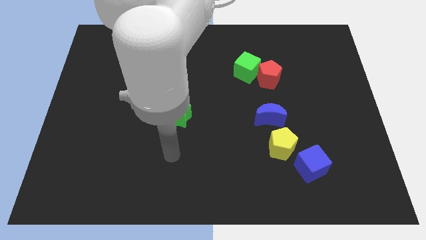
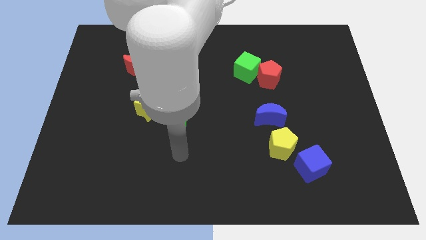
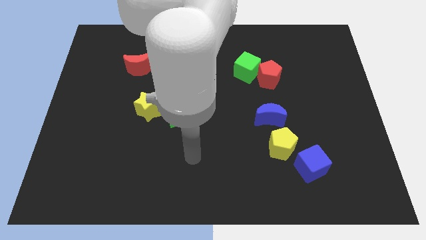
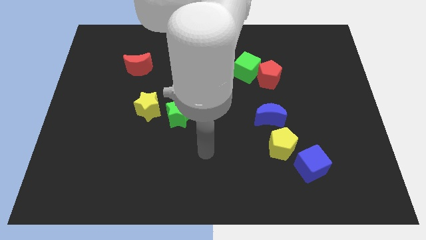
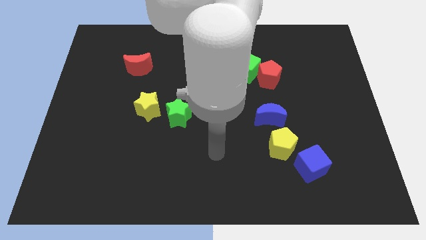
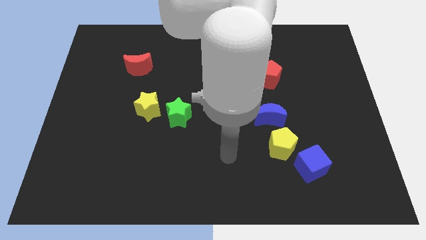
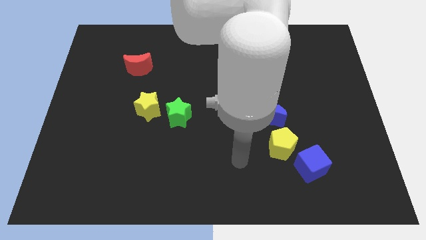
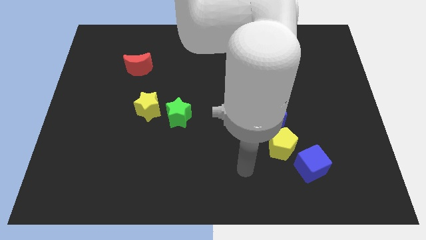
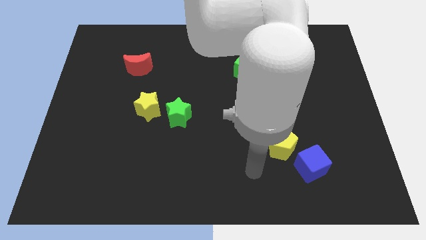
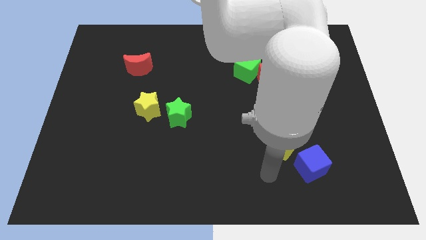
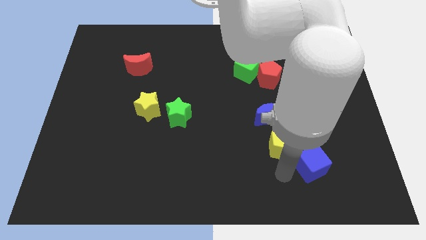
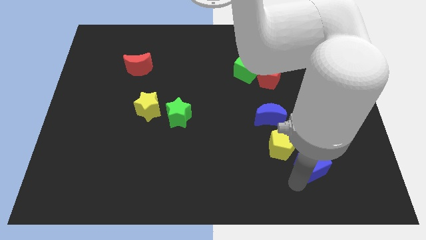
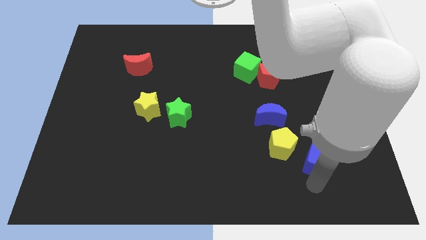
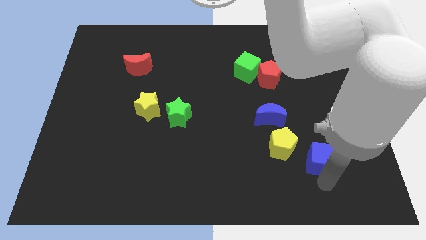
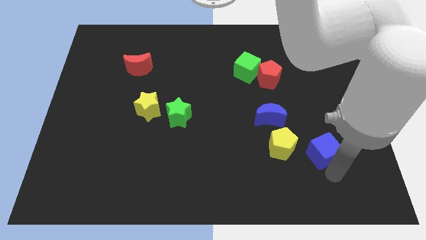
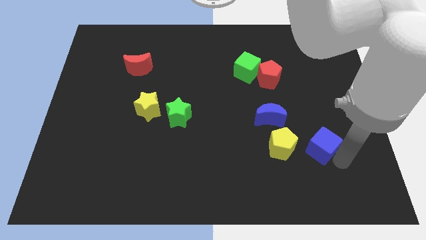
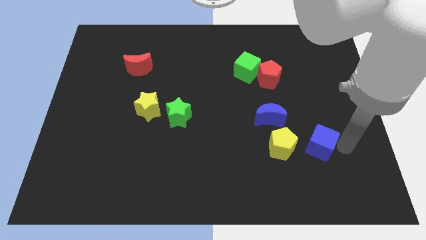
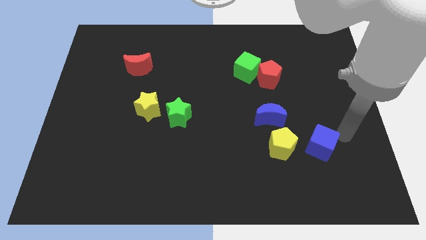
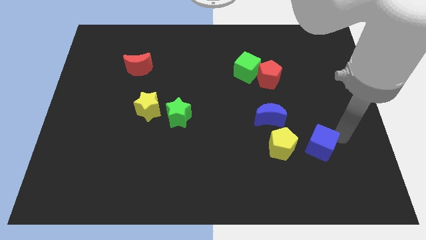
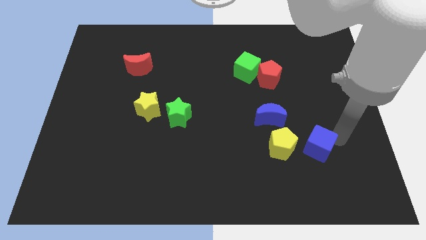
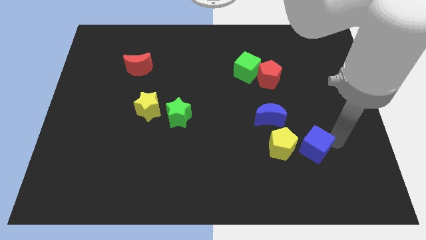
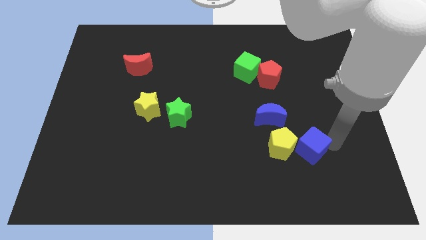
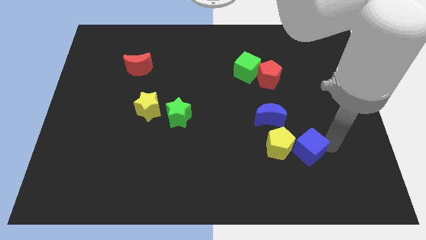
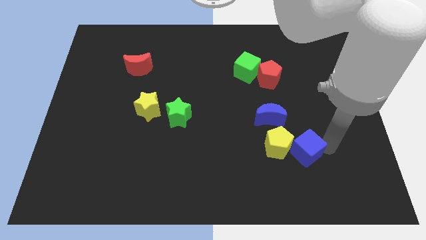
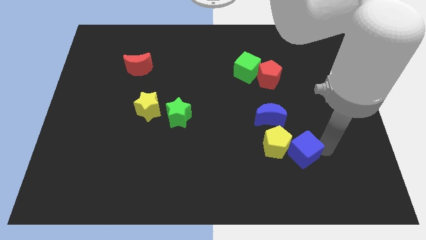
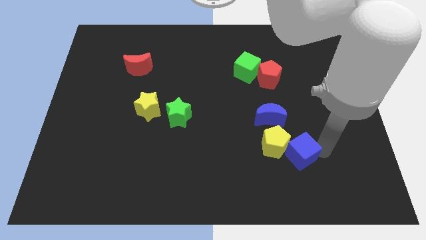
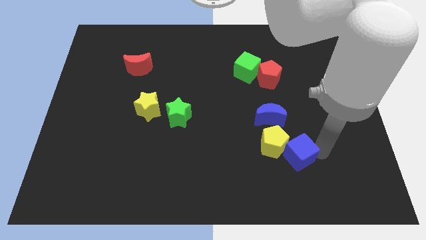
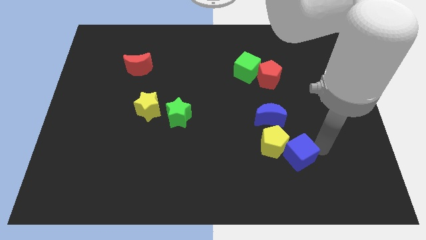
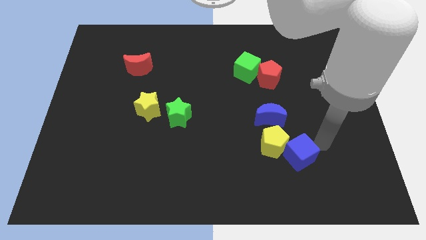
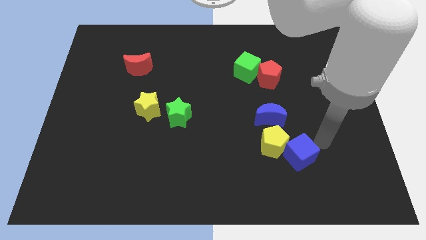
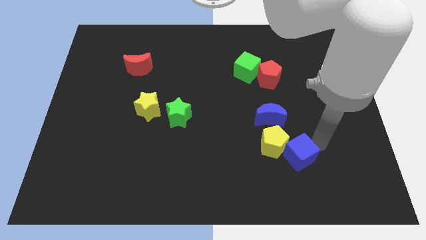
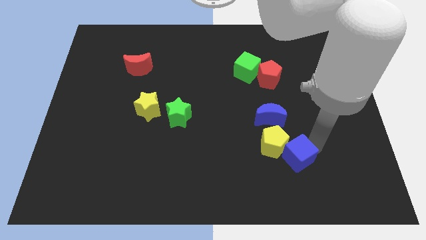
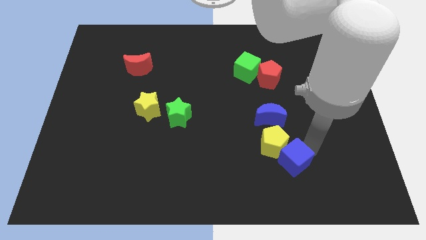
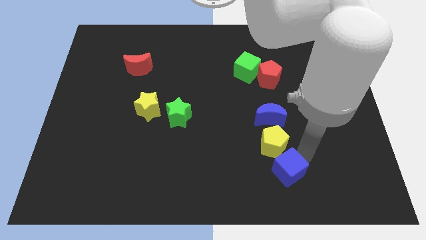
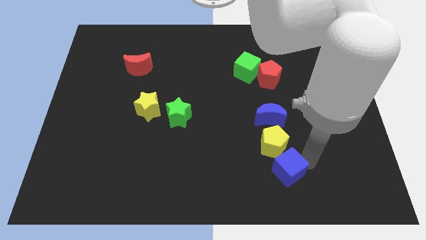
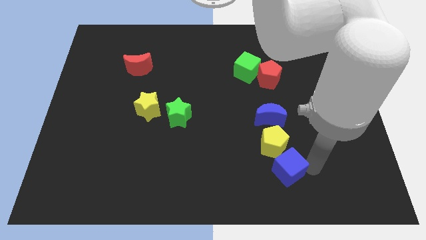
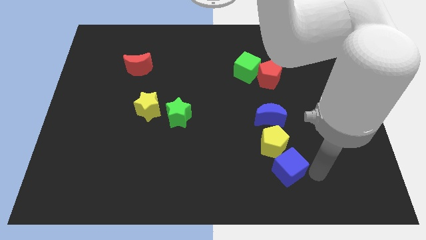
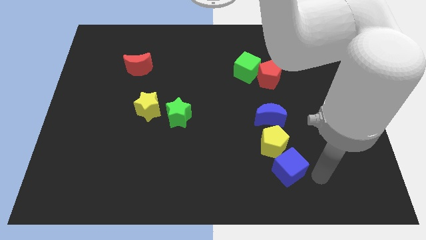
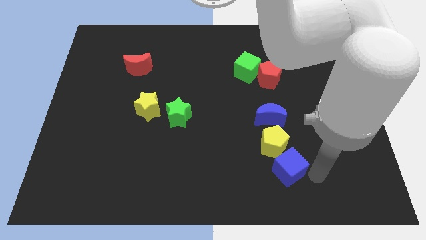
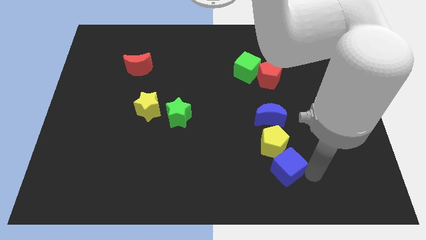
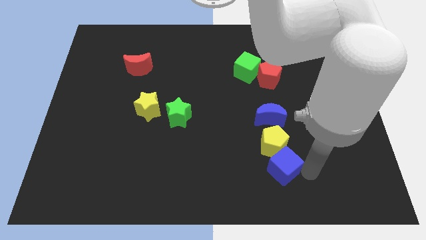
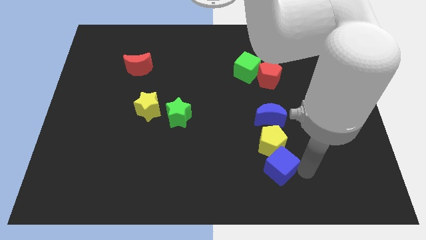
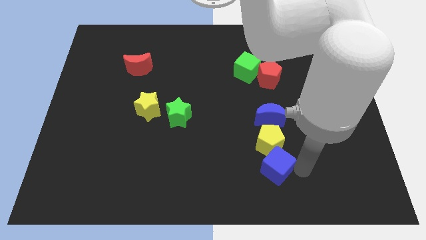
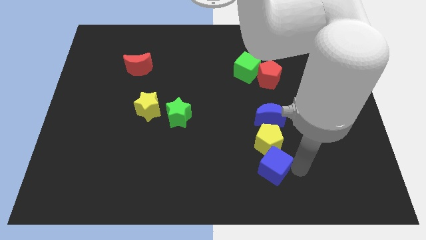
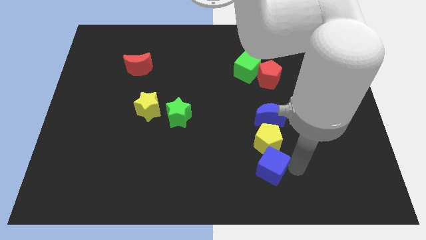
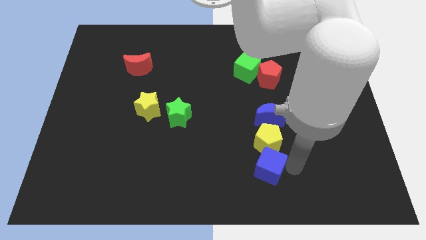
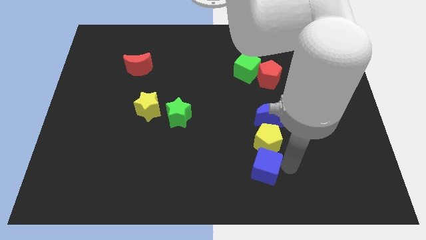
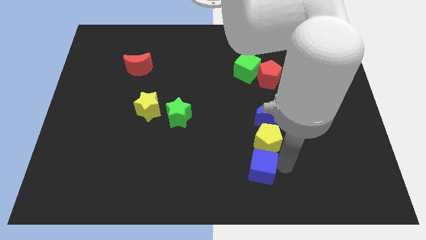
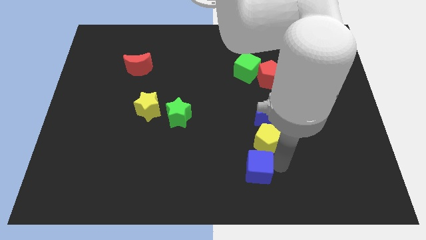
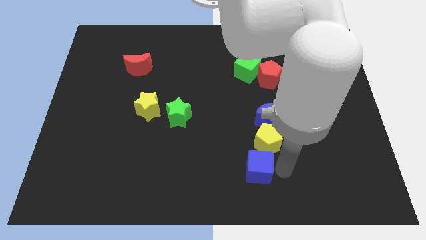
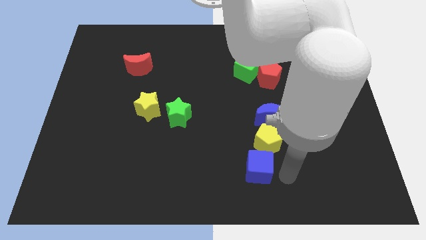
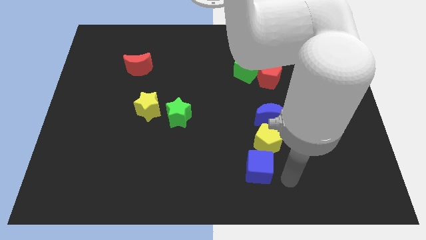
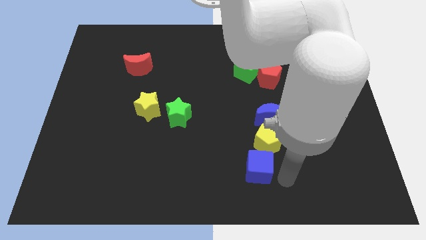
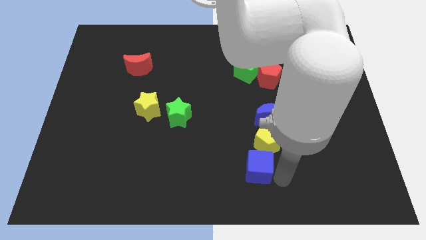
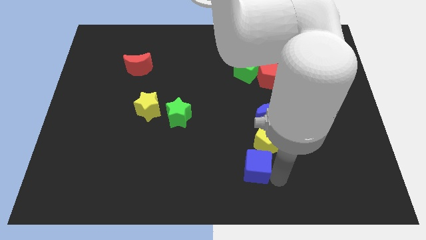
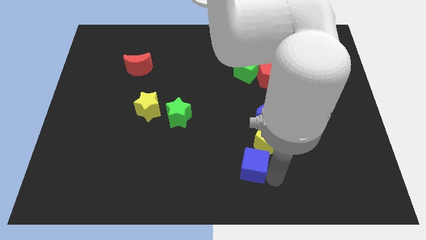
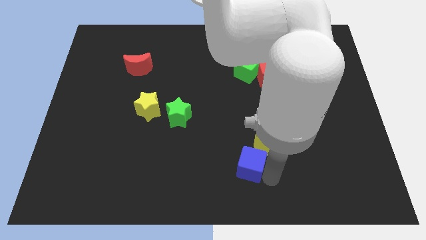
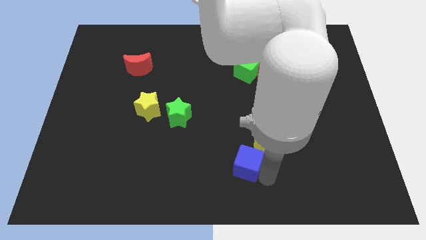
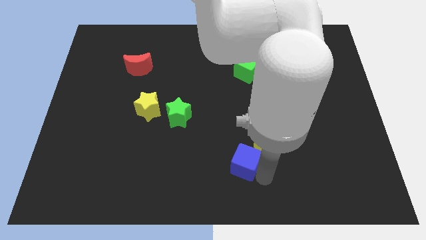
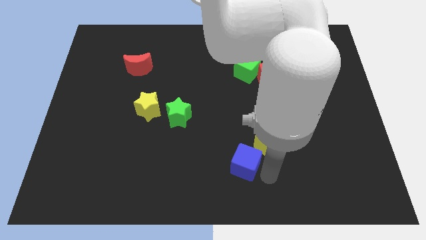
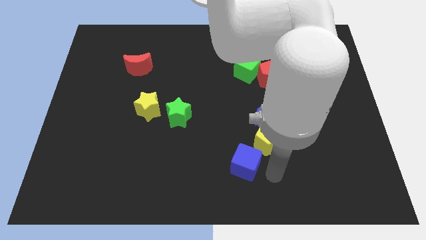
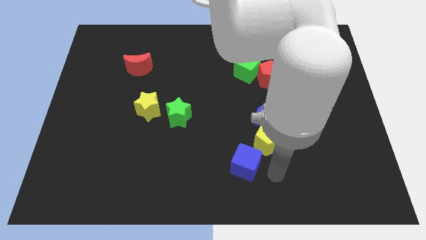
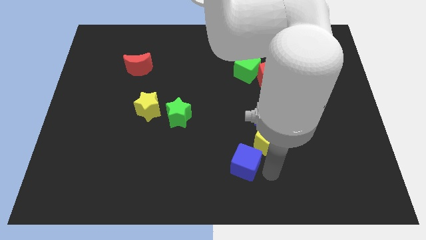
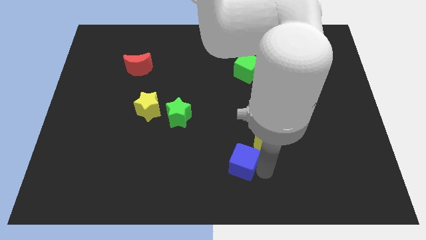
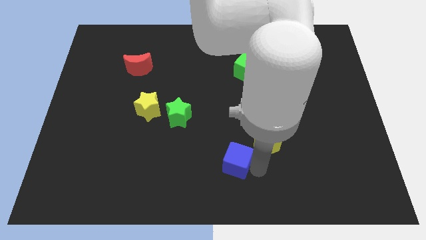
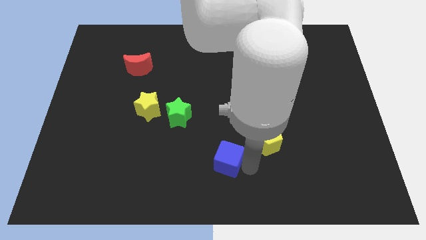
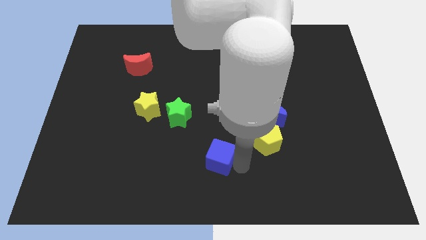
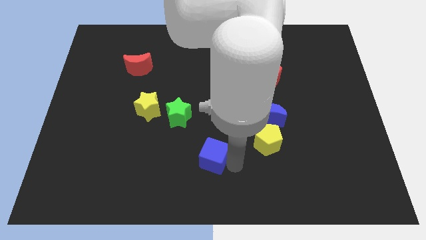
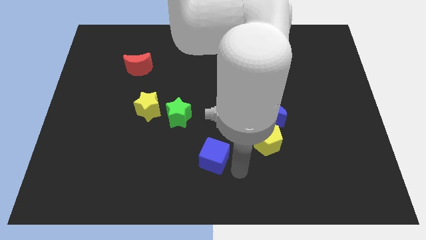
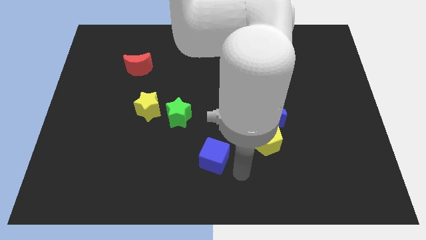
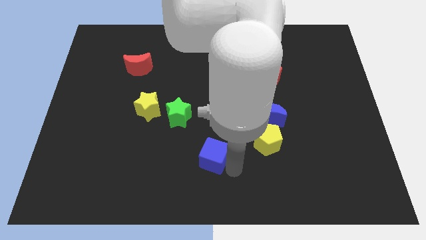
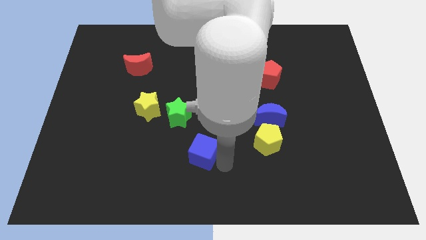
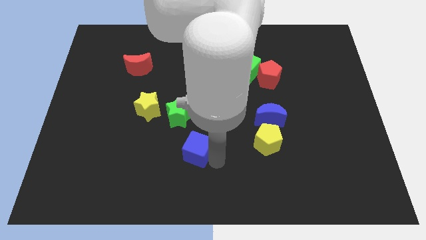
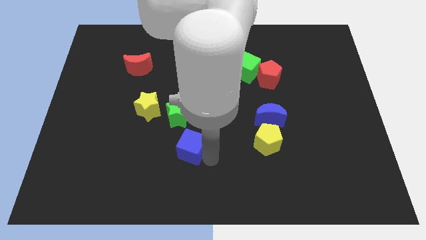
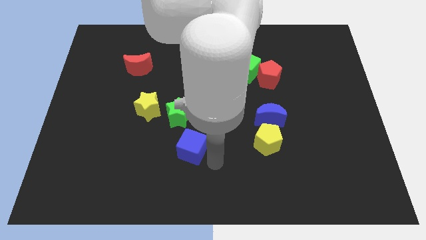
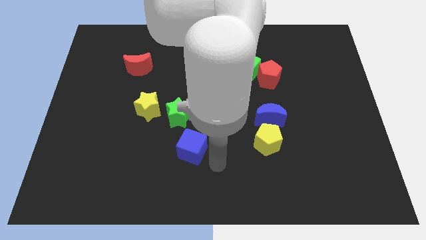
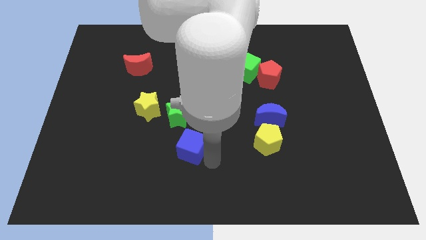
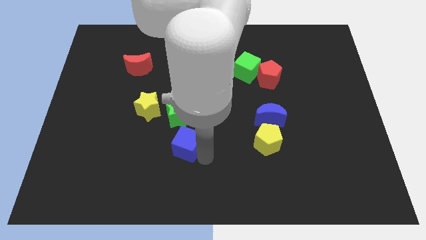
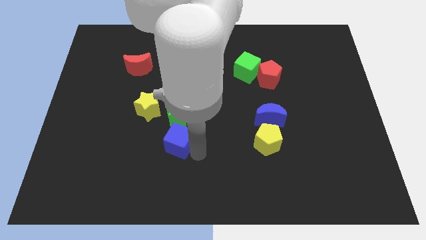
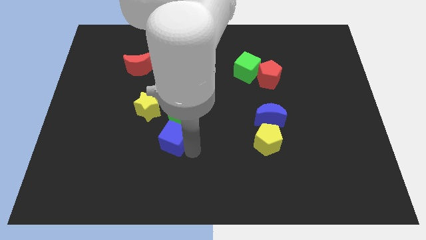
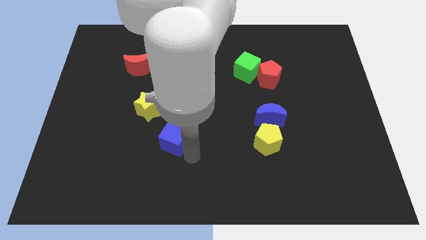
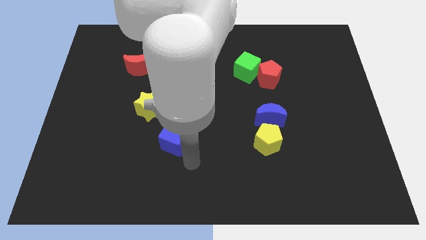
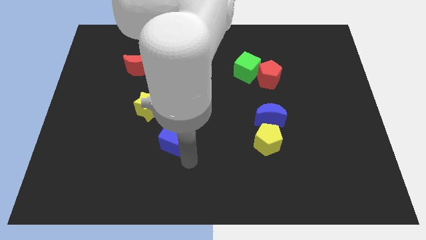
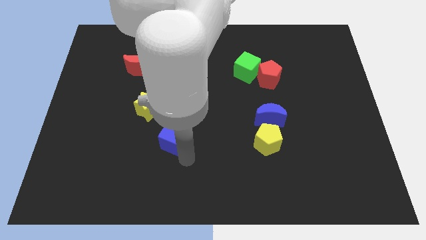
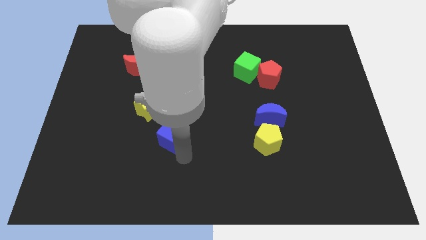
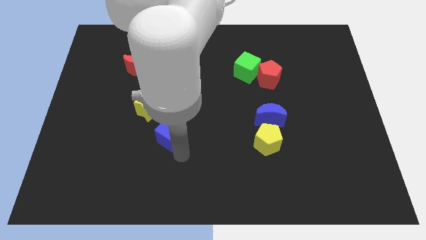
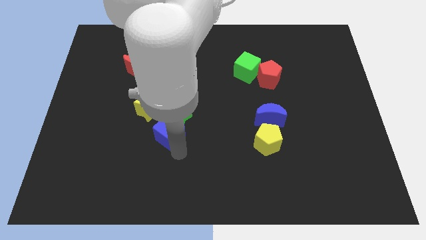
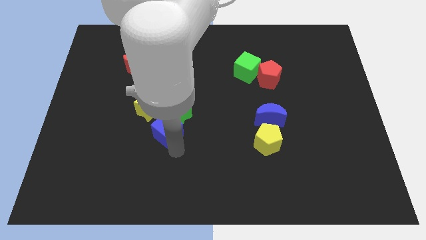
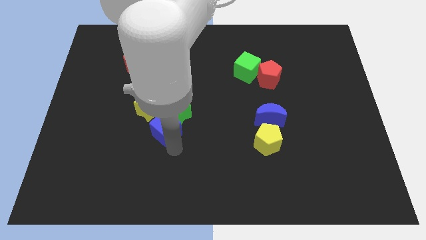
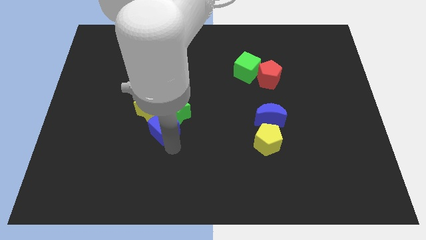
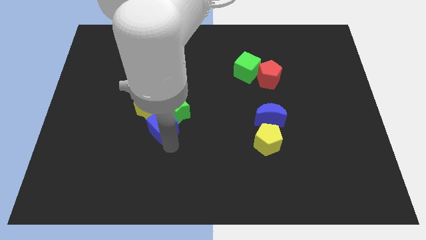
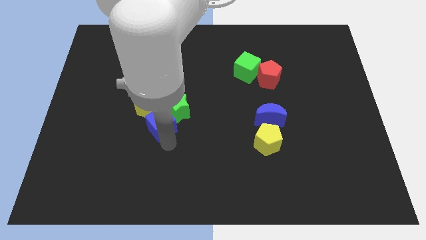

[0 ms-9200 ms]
move the blue cube next to the yellow star
